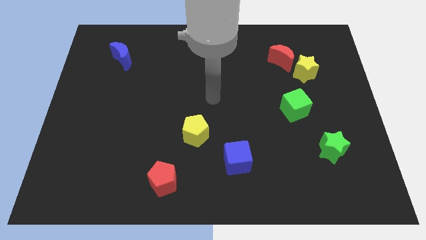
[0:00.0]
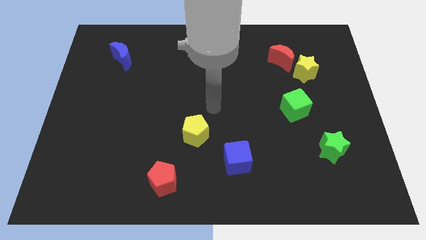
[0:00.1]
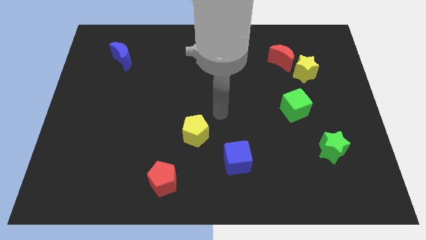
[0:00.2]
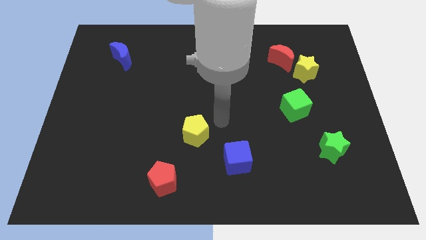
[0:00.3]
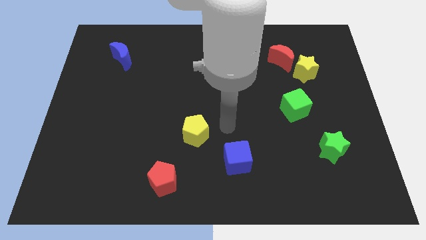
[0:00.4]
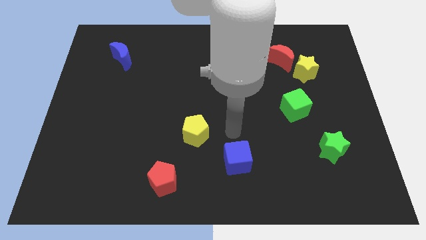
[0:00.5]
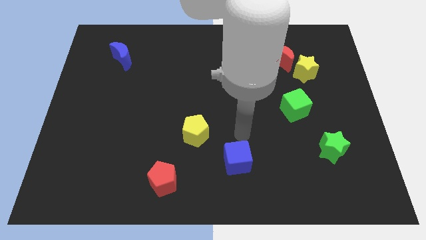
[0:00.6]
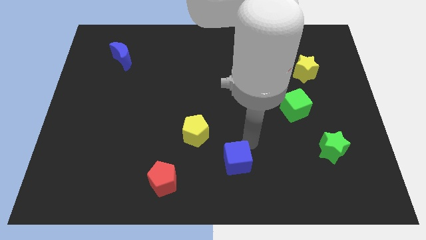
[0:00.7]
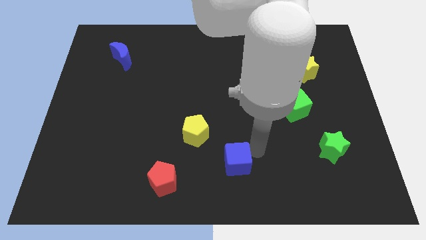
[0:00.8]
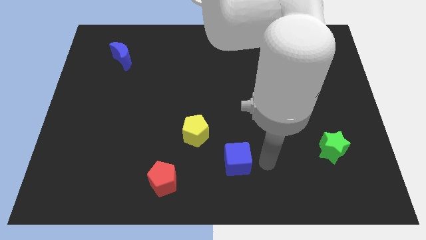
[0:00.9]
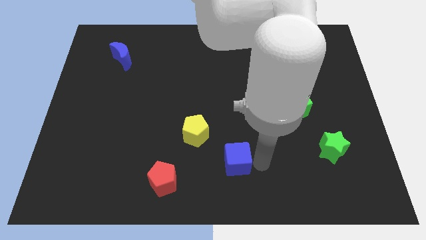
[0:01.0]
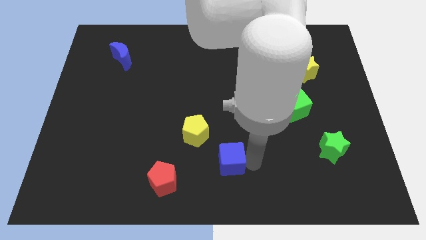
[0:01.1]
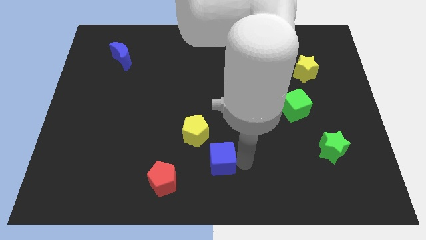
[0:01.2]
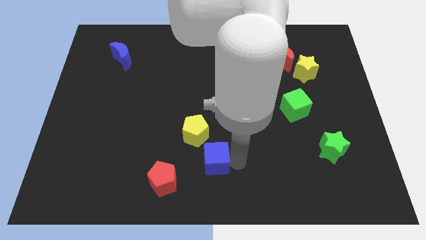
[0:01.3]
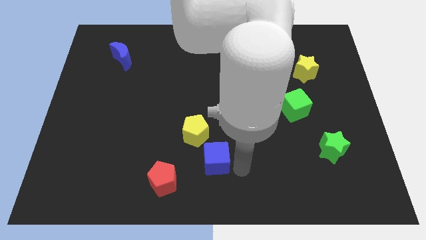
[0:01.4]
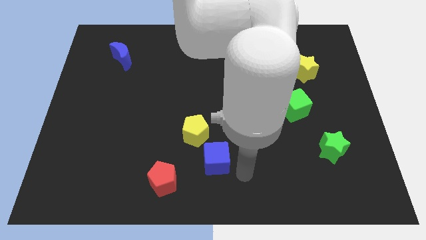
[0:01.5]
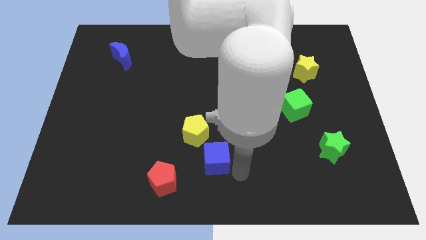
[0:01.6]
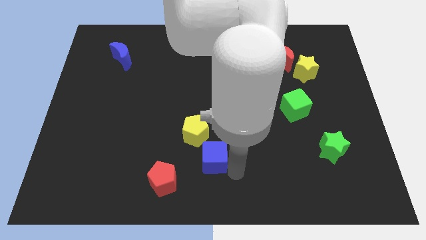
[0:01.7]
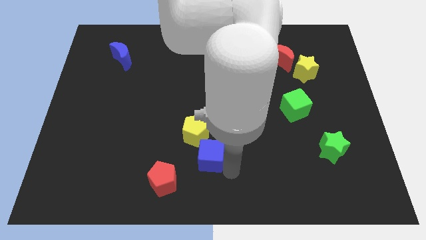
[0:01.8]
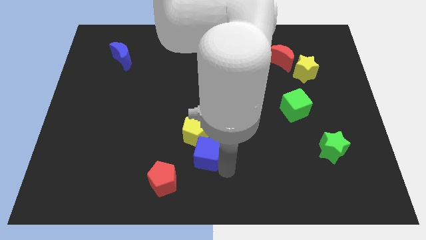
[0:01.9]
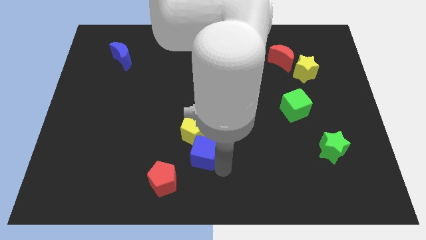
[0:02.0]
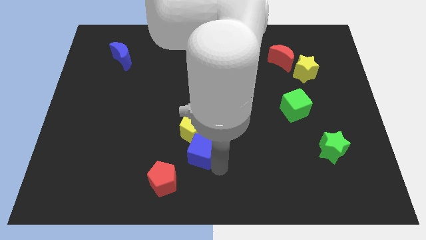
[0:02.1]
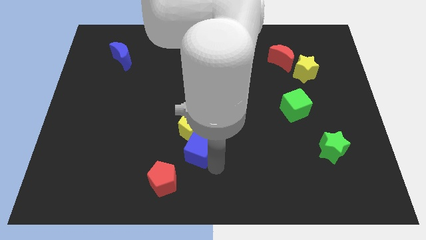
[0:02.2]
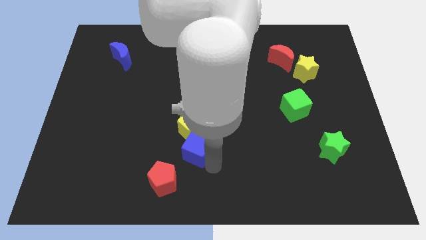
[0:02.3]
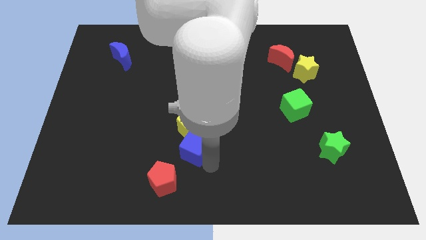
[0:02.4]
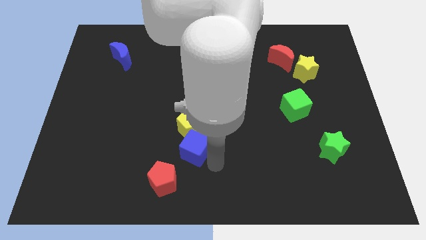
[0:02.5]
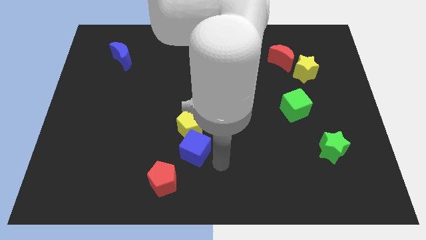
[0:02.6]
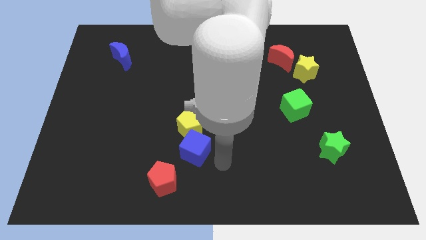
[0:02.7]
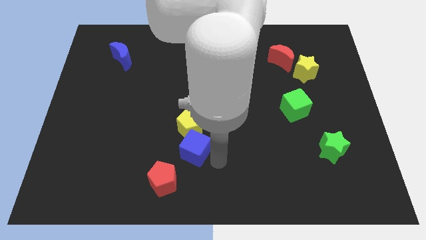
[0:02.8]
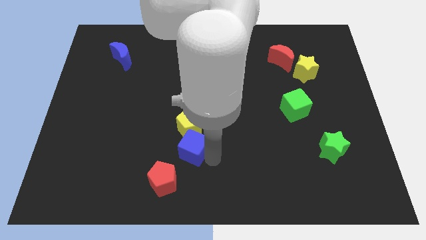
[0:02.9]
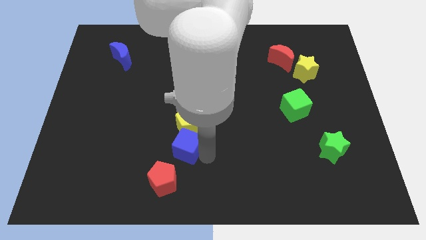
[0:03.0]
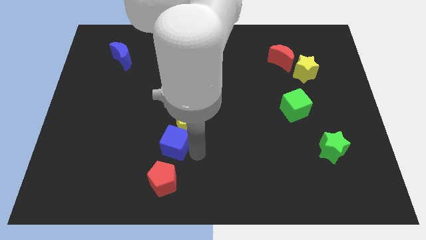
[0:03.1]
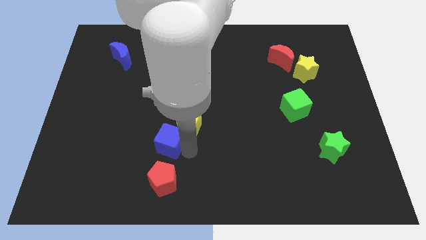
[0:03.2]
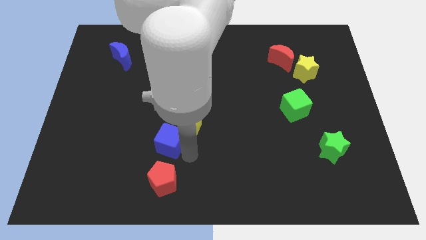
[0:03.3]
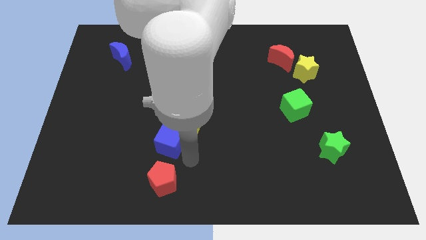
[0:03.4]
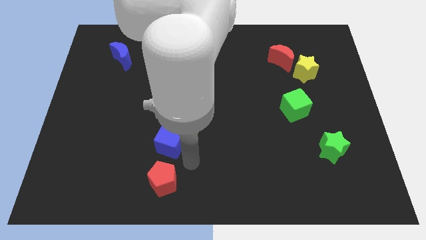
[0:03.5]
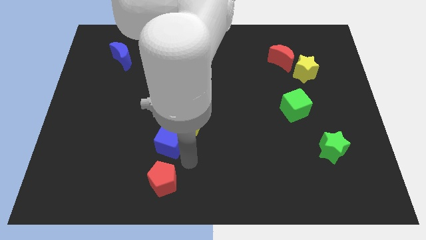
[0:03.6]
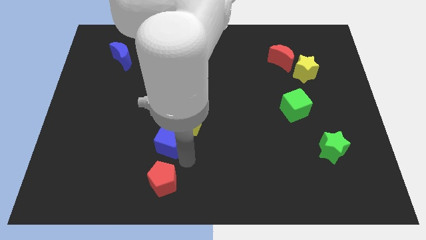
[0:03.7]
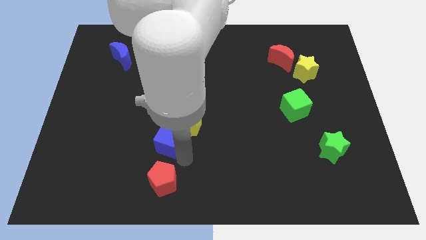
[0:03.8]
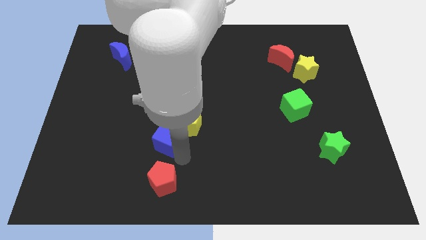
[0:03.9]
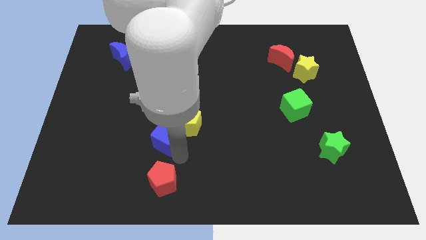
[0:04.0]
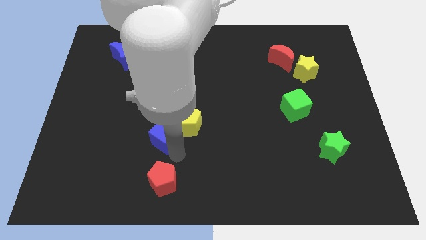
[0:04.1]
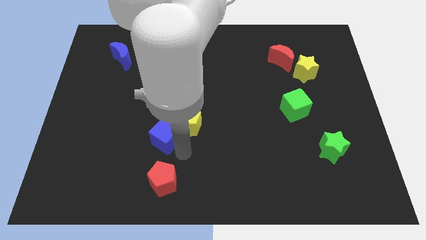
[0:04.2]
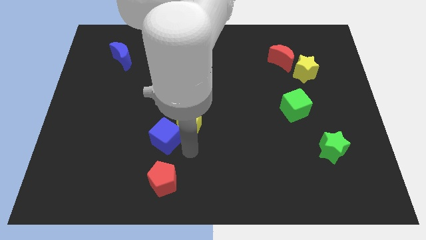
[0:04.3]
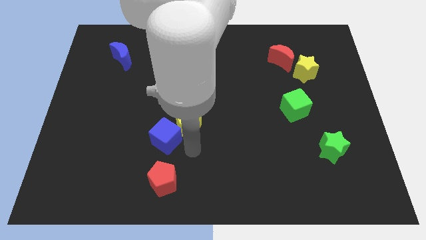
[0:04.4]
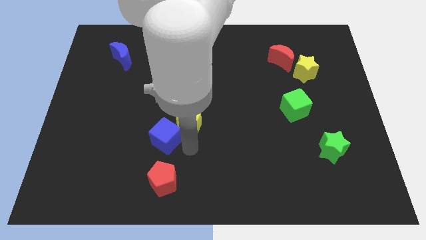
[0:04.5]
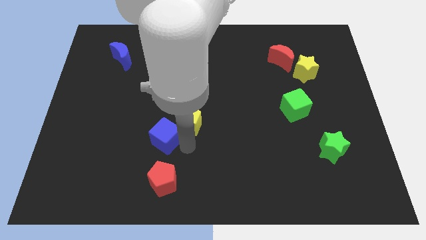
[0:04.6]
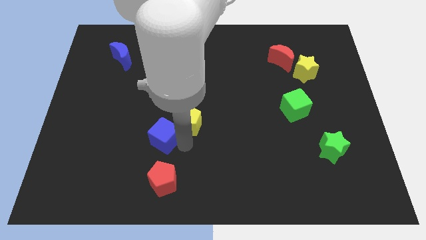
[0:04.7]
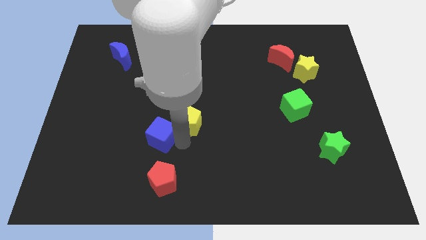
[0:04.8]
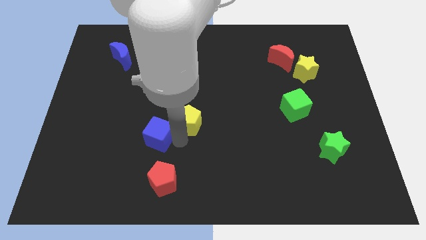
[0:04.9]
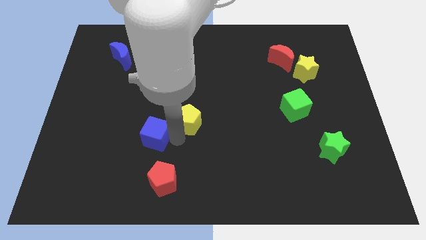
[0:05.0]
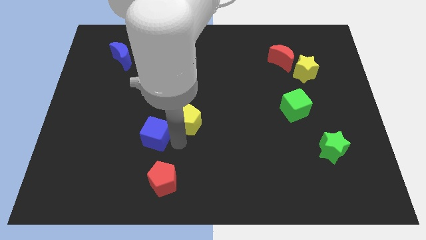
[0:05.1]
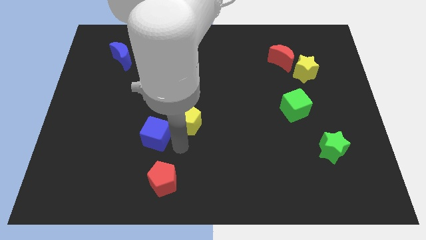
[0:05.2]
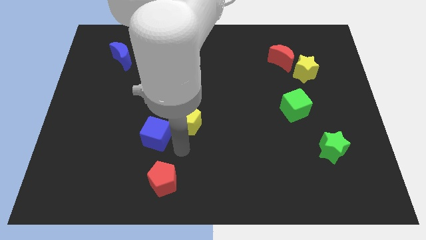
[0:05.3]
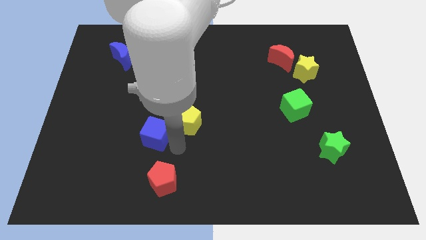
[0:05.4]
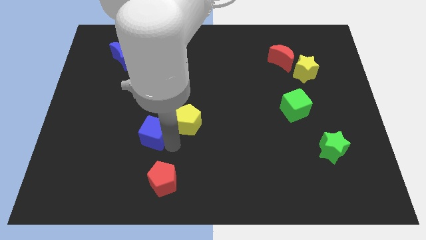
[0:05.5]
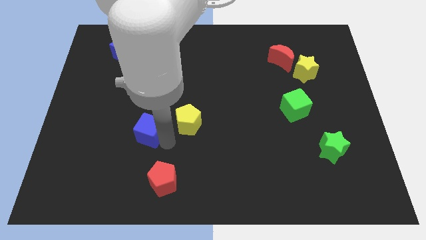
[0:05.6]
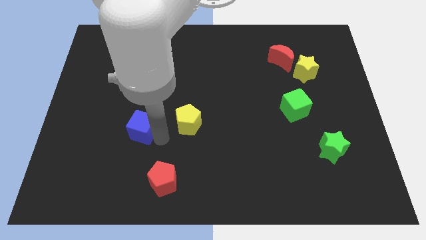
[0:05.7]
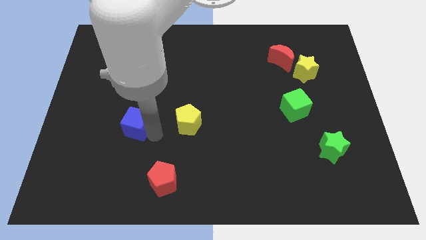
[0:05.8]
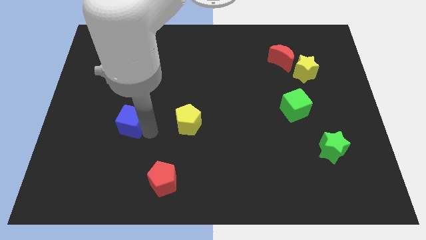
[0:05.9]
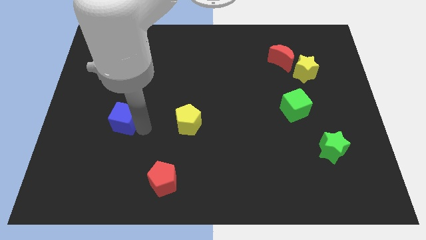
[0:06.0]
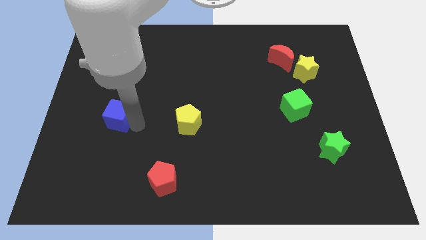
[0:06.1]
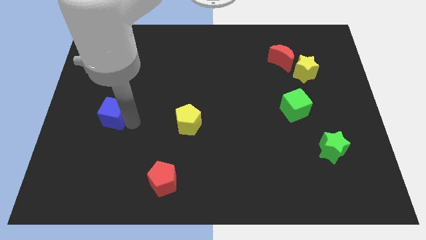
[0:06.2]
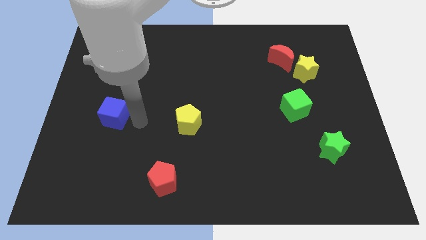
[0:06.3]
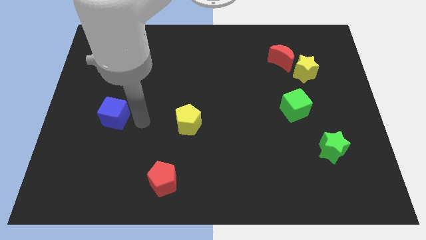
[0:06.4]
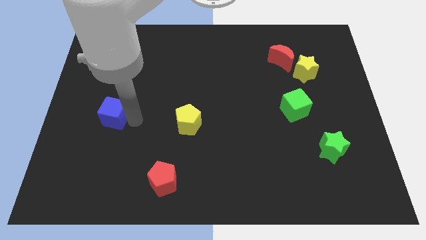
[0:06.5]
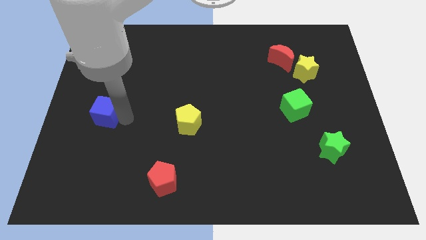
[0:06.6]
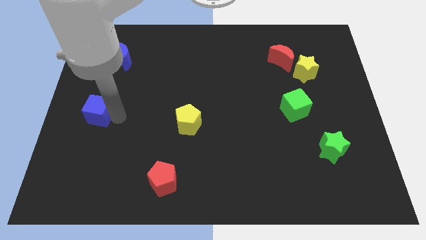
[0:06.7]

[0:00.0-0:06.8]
move the blue cube to the left side of the board
